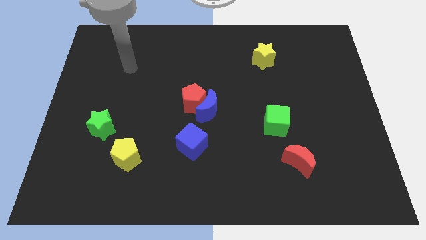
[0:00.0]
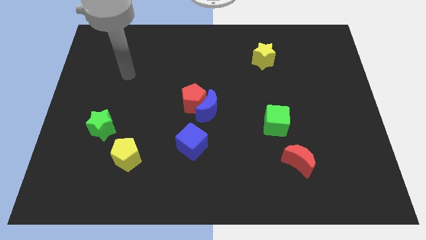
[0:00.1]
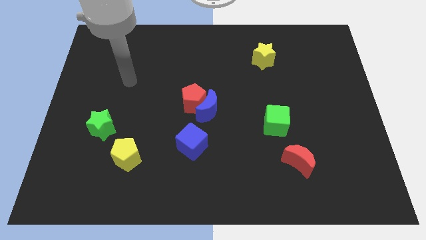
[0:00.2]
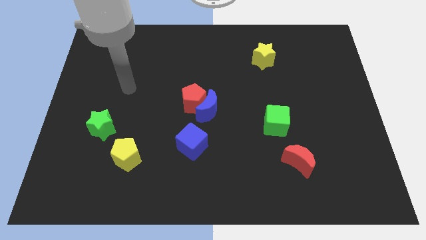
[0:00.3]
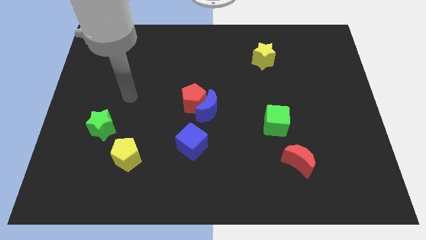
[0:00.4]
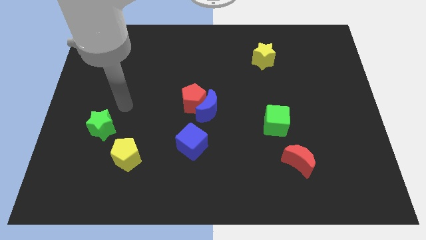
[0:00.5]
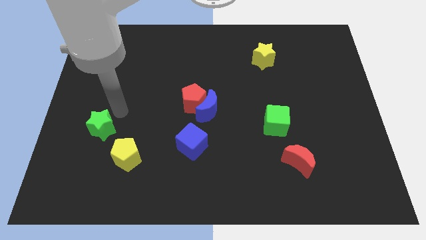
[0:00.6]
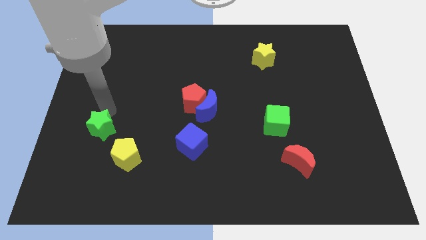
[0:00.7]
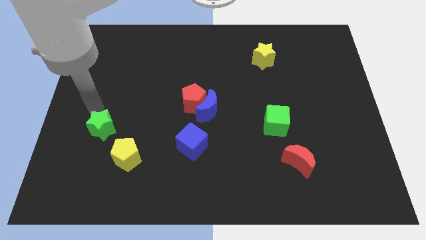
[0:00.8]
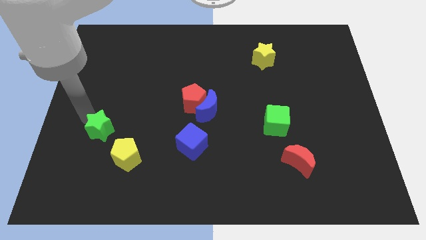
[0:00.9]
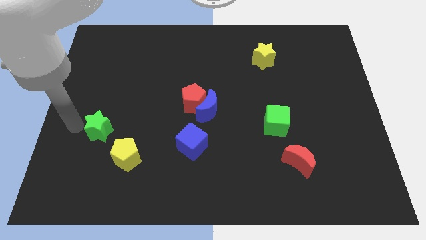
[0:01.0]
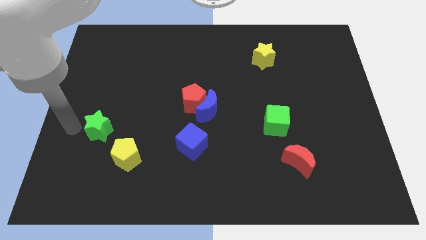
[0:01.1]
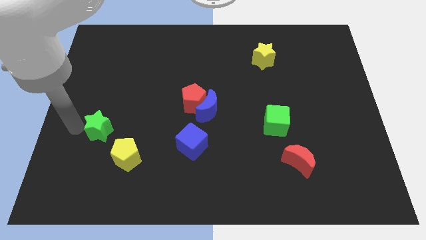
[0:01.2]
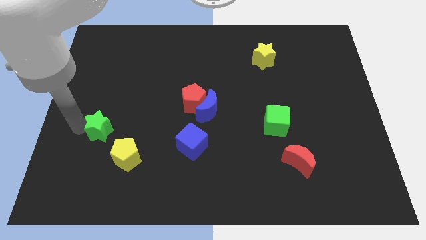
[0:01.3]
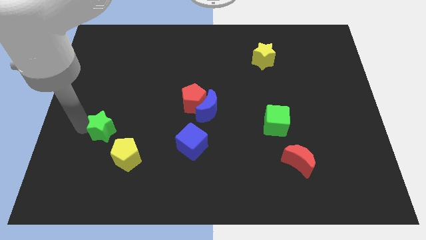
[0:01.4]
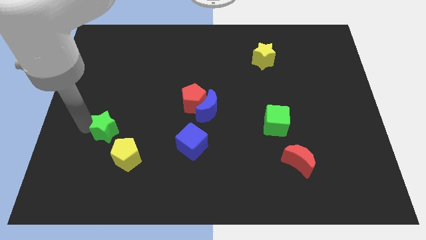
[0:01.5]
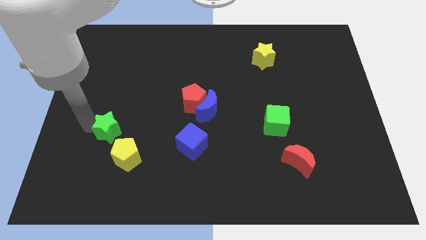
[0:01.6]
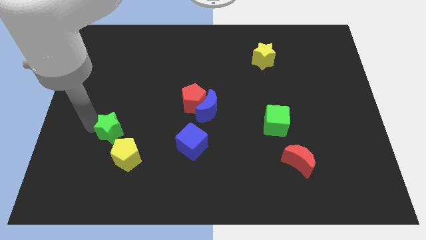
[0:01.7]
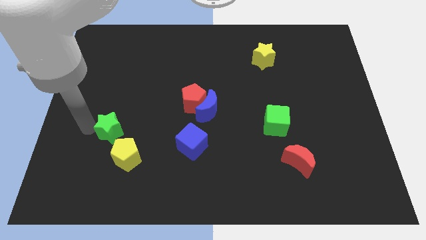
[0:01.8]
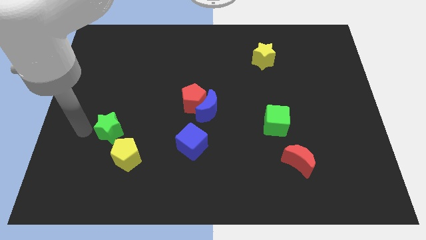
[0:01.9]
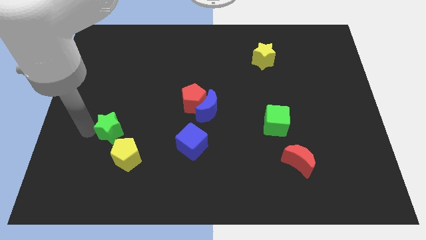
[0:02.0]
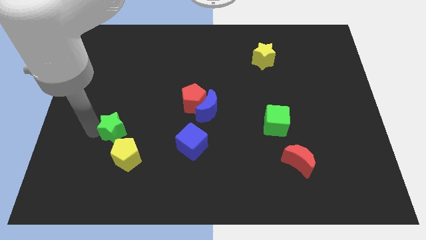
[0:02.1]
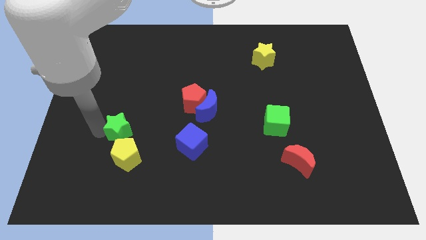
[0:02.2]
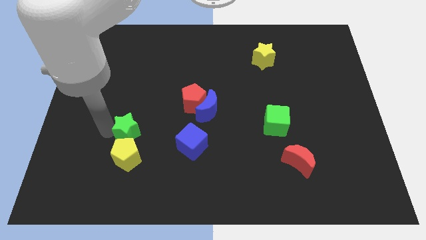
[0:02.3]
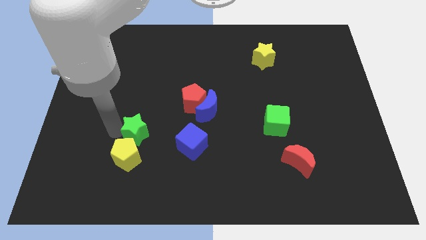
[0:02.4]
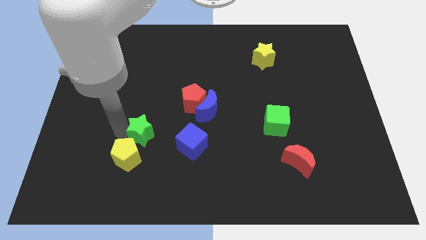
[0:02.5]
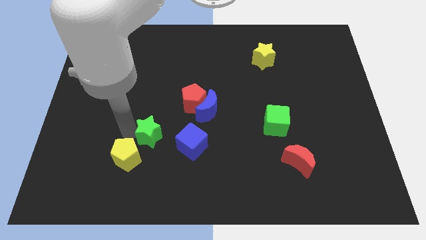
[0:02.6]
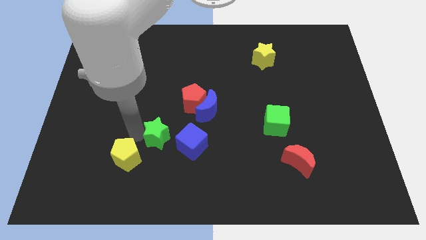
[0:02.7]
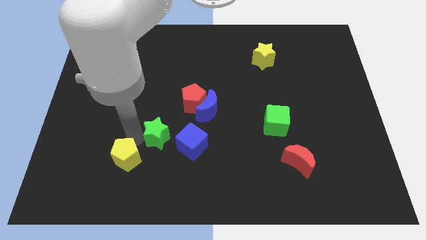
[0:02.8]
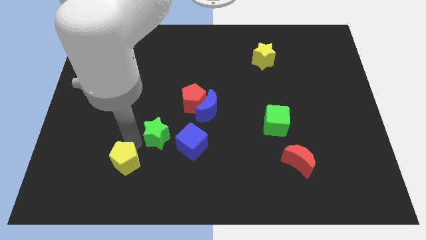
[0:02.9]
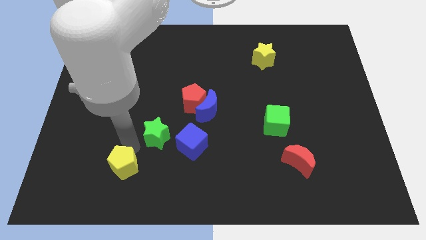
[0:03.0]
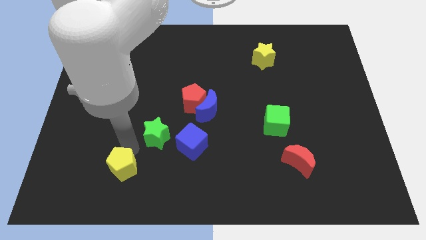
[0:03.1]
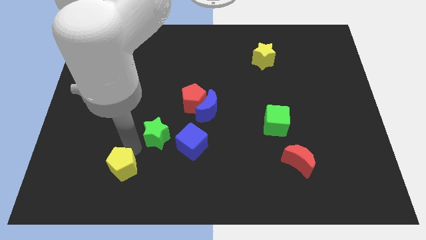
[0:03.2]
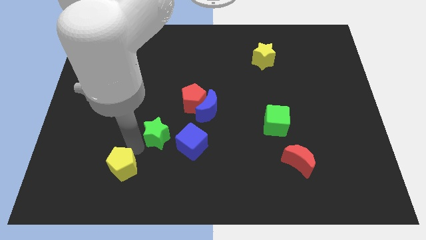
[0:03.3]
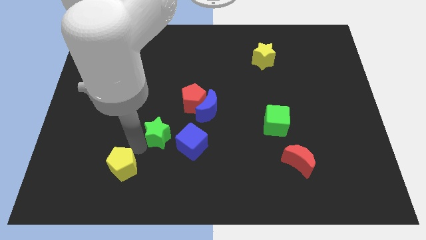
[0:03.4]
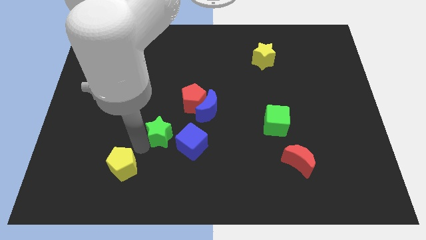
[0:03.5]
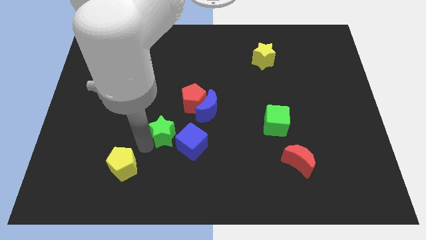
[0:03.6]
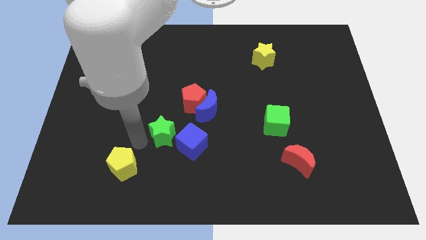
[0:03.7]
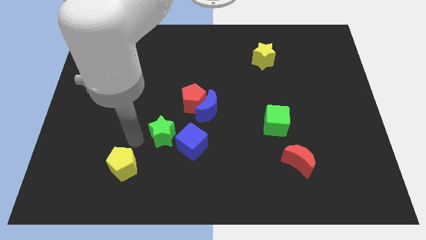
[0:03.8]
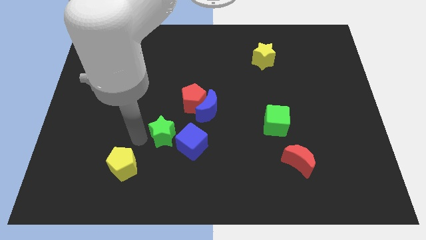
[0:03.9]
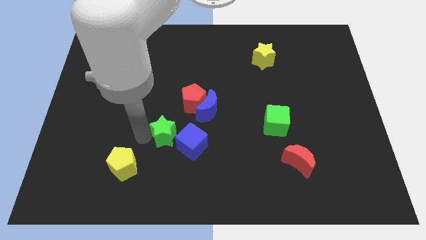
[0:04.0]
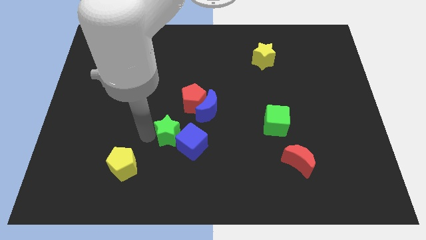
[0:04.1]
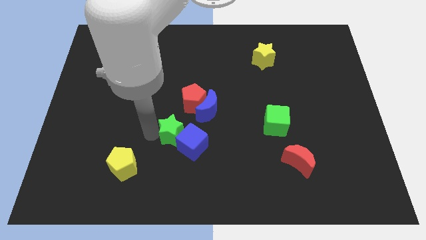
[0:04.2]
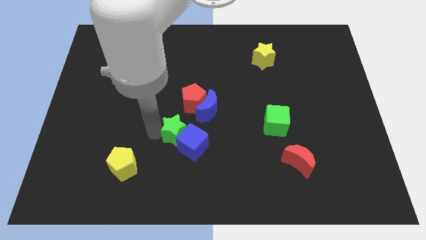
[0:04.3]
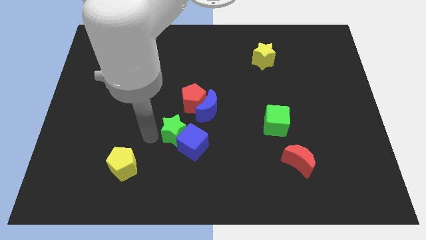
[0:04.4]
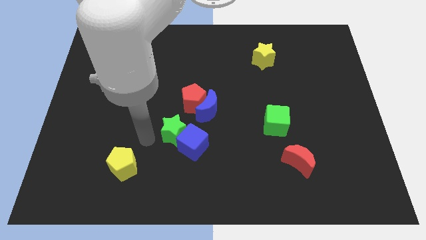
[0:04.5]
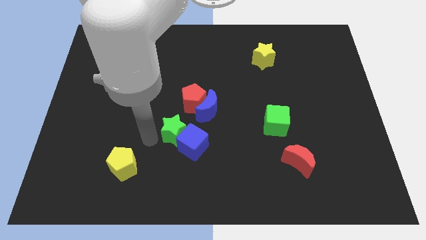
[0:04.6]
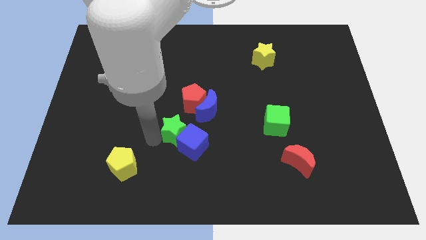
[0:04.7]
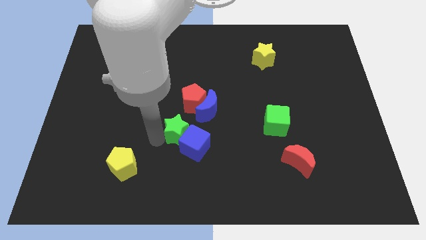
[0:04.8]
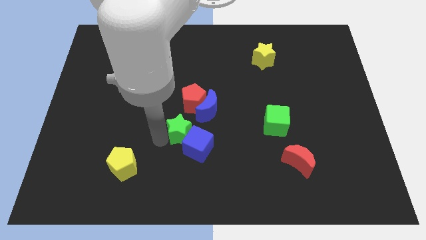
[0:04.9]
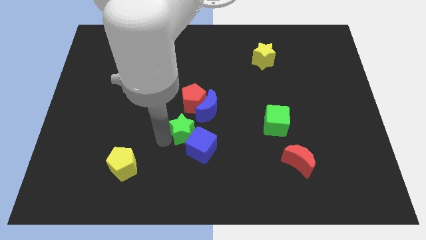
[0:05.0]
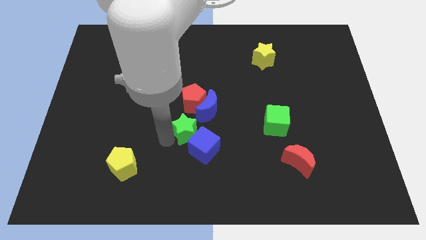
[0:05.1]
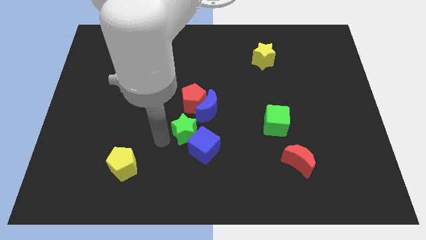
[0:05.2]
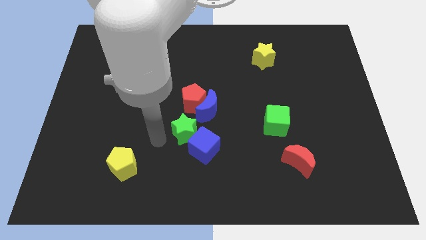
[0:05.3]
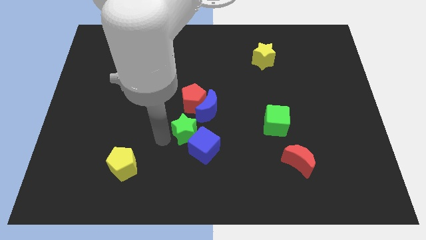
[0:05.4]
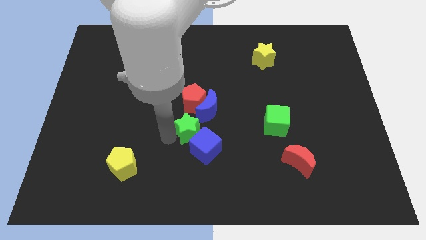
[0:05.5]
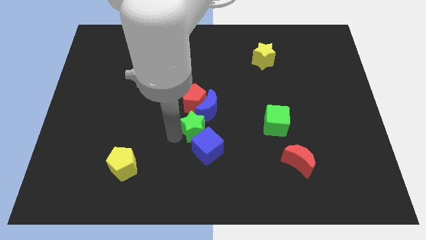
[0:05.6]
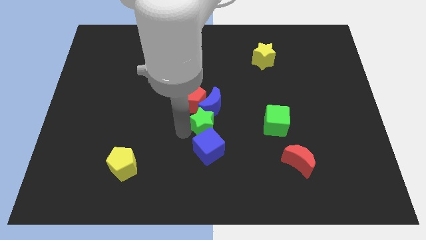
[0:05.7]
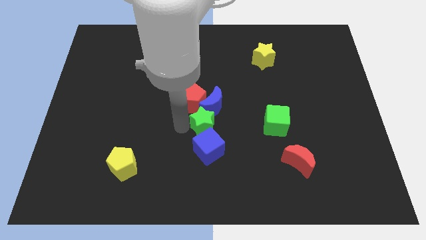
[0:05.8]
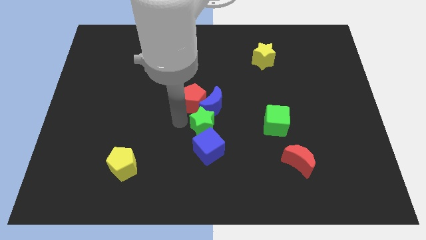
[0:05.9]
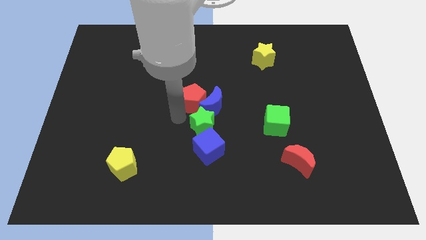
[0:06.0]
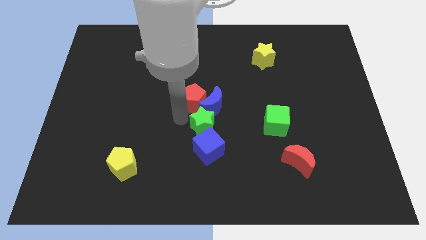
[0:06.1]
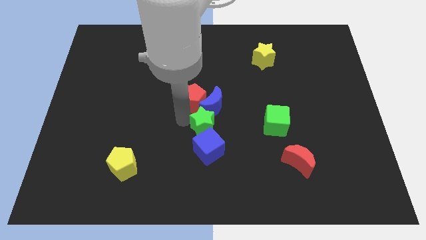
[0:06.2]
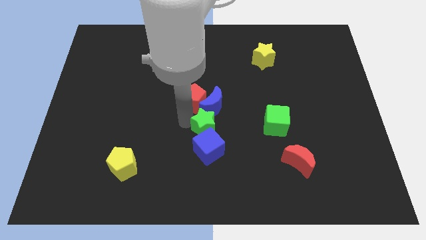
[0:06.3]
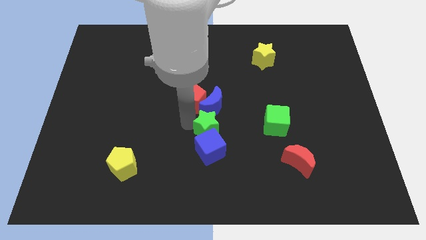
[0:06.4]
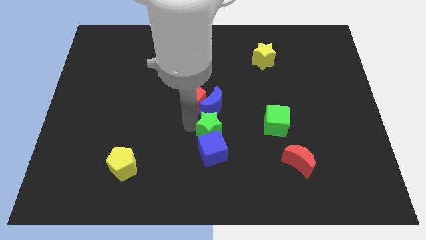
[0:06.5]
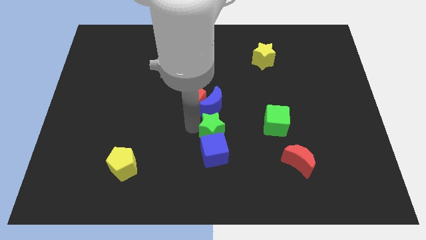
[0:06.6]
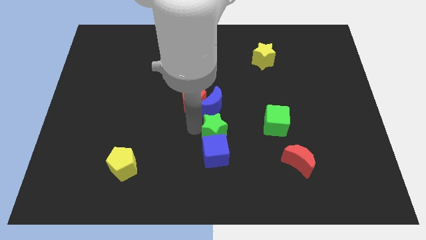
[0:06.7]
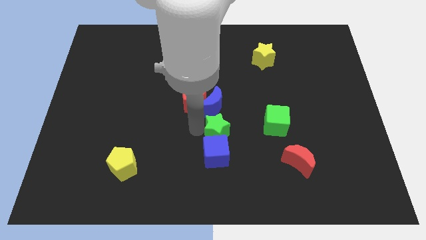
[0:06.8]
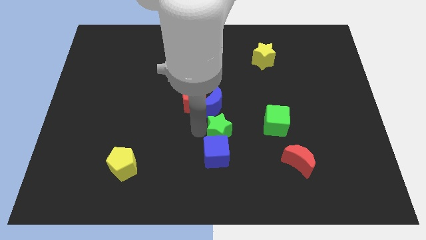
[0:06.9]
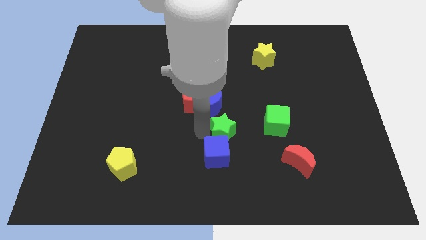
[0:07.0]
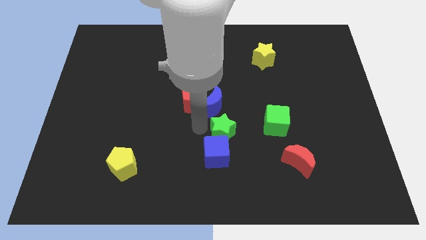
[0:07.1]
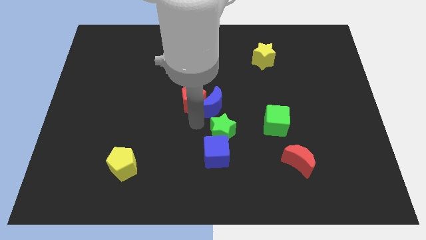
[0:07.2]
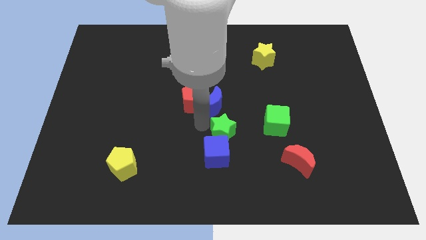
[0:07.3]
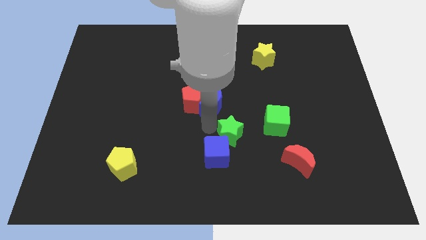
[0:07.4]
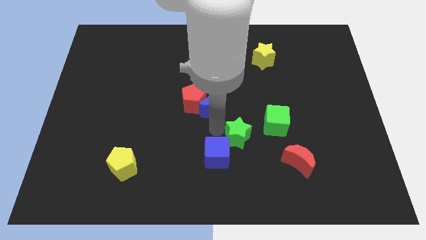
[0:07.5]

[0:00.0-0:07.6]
put the green star to the bottom left of the green cube
